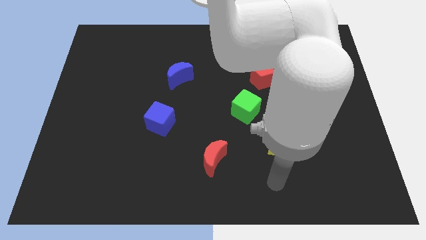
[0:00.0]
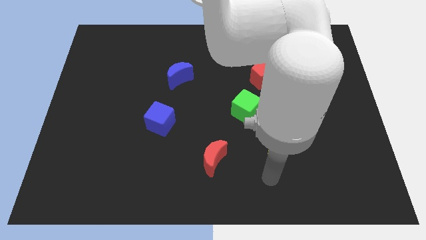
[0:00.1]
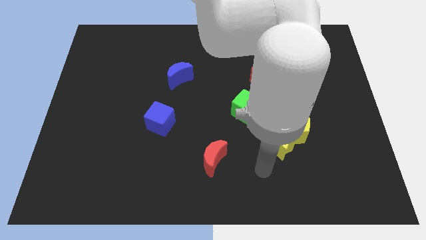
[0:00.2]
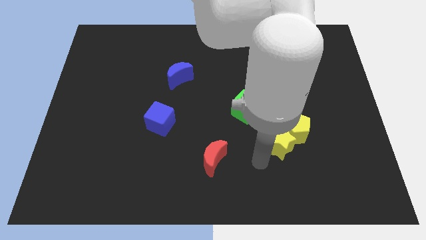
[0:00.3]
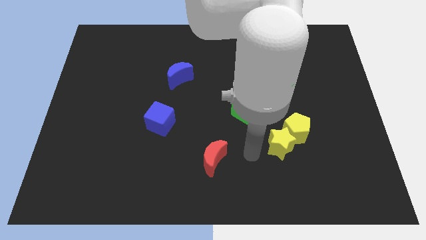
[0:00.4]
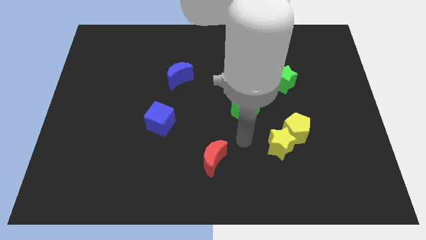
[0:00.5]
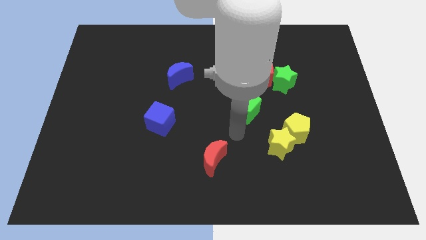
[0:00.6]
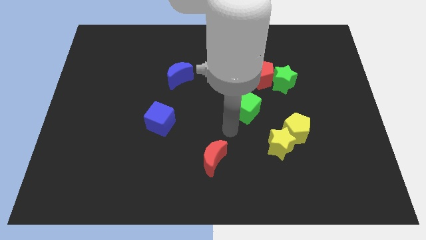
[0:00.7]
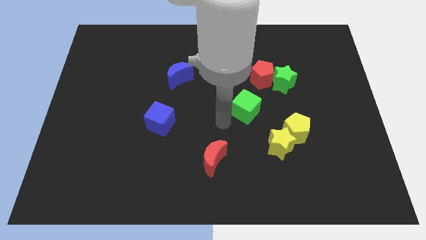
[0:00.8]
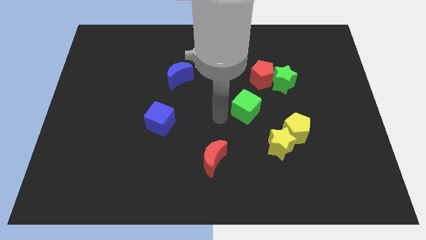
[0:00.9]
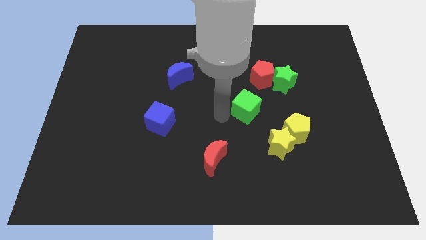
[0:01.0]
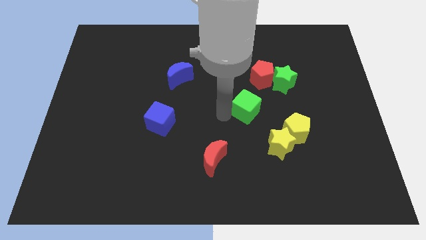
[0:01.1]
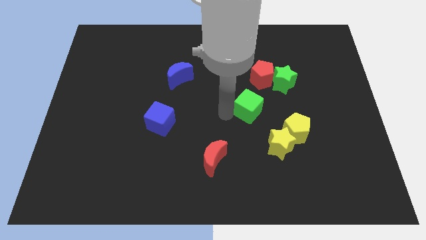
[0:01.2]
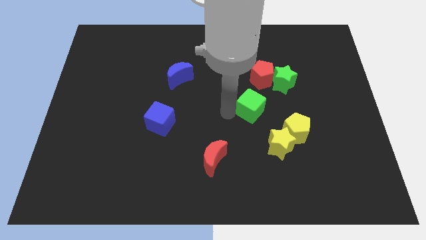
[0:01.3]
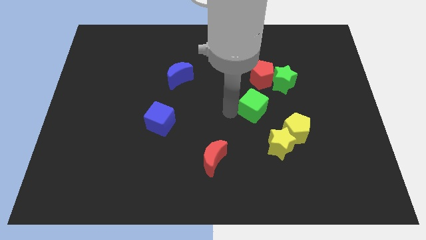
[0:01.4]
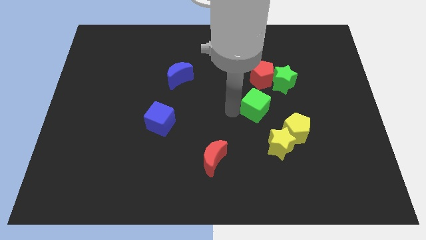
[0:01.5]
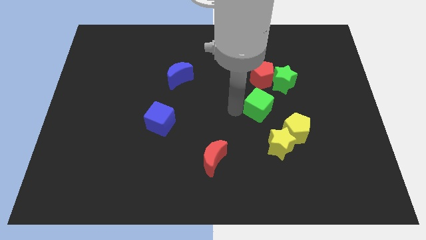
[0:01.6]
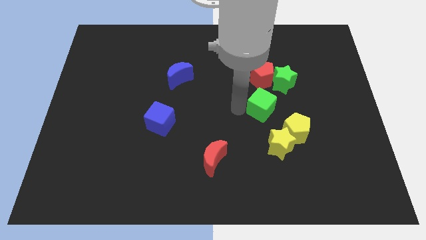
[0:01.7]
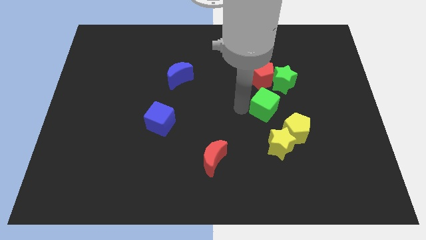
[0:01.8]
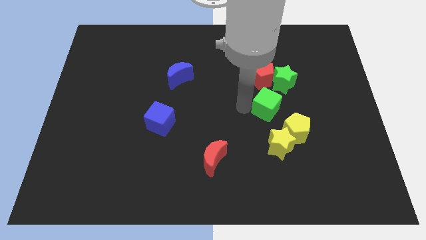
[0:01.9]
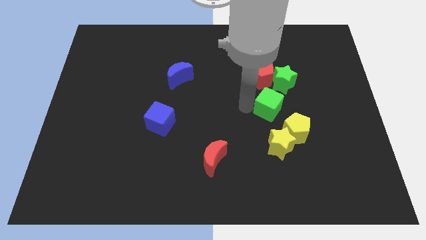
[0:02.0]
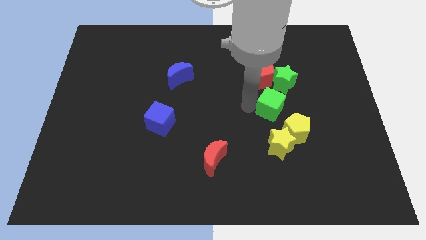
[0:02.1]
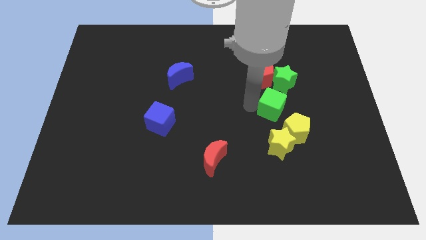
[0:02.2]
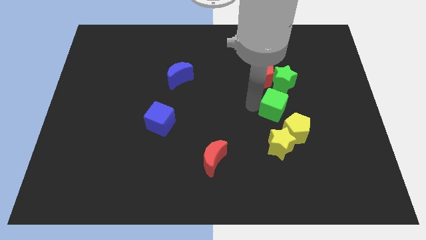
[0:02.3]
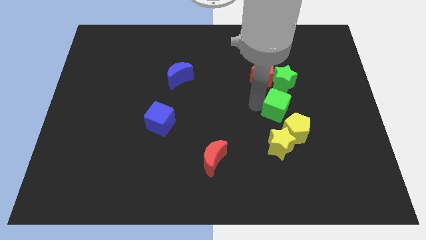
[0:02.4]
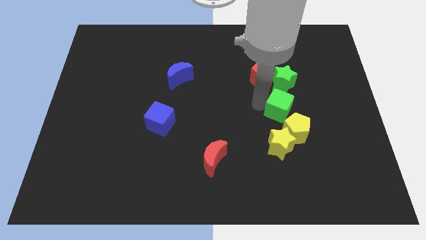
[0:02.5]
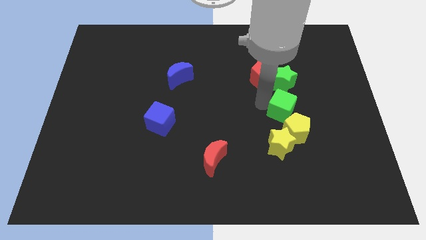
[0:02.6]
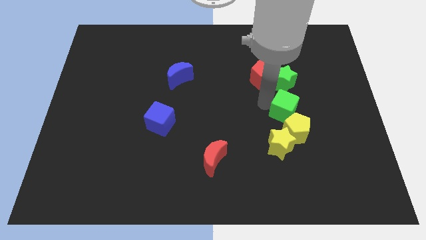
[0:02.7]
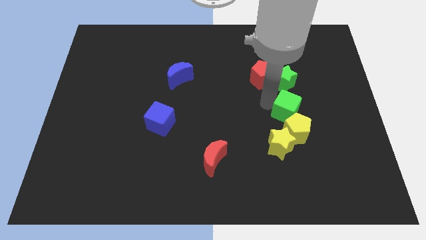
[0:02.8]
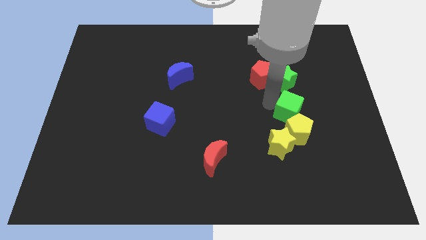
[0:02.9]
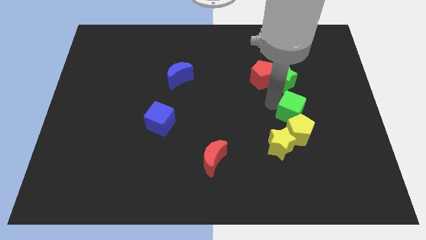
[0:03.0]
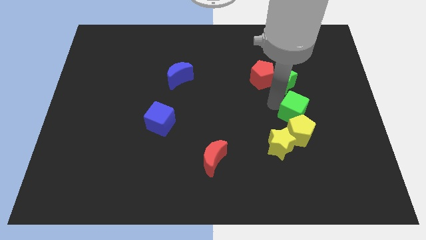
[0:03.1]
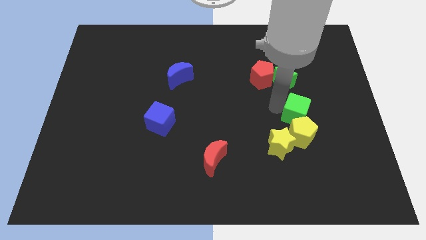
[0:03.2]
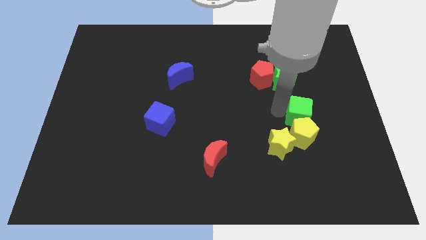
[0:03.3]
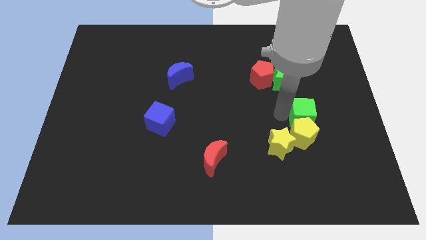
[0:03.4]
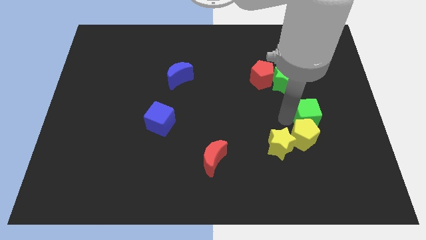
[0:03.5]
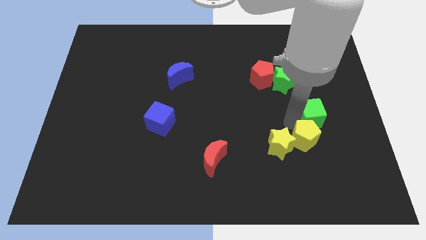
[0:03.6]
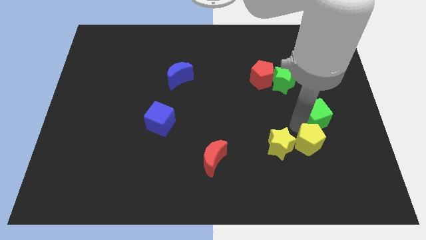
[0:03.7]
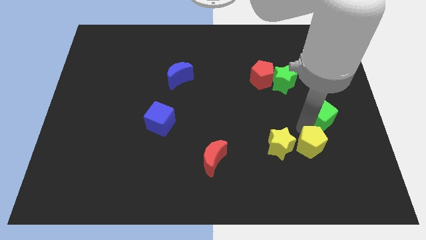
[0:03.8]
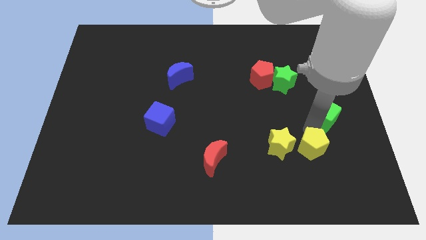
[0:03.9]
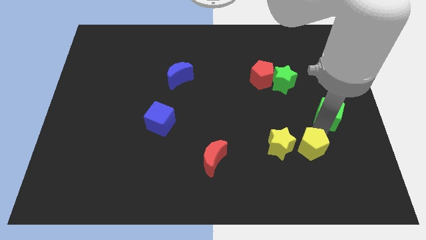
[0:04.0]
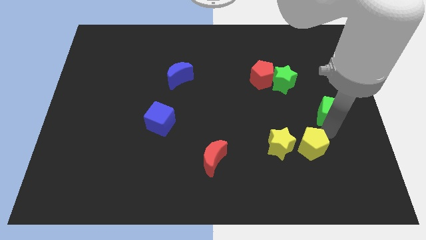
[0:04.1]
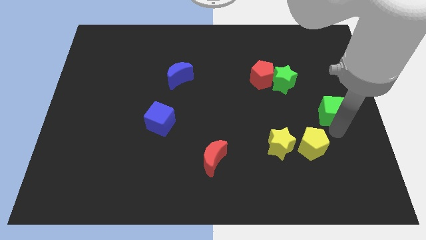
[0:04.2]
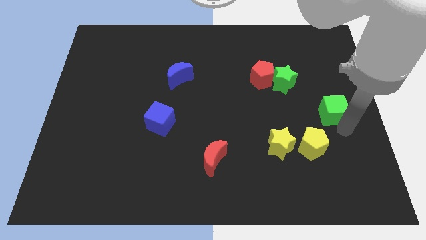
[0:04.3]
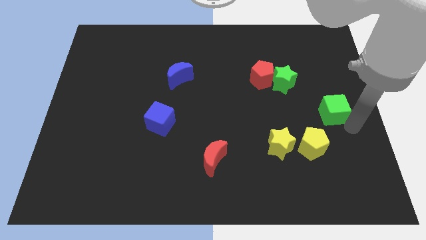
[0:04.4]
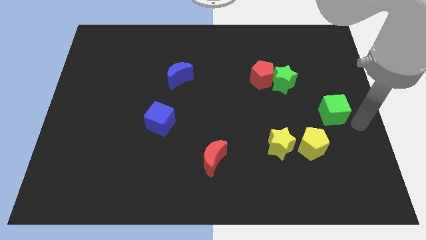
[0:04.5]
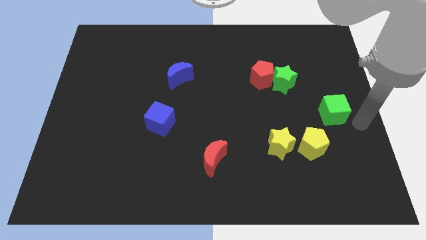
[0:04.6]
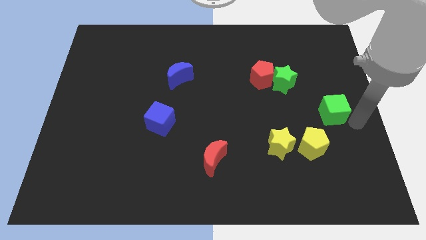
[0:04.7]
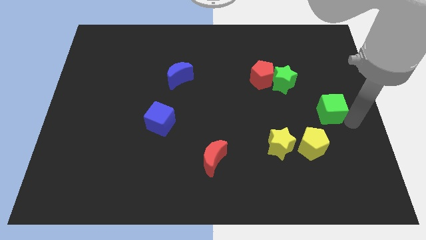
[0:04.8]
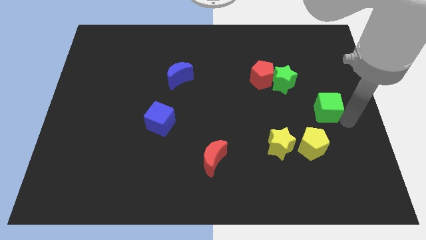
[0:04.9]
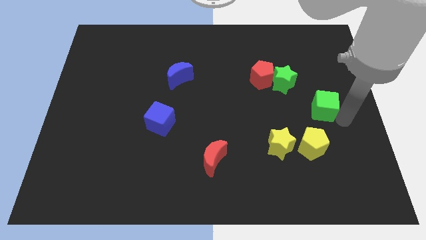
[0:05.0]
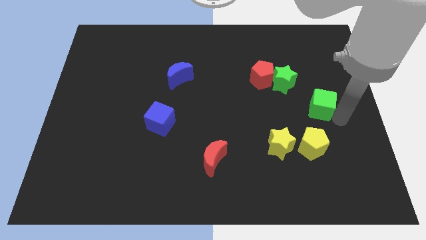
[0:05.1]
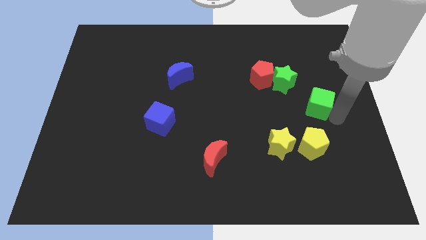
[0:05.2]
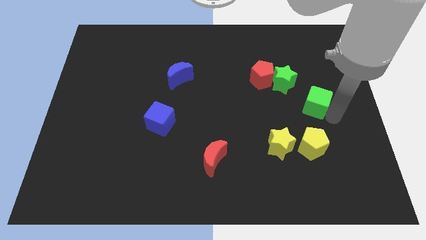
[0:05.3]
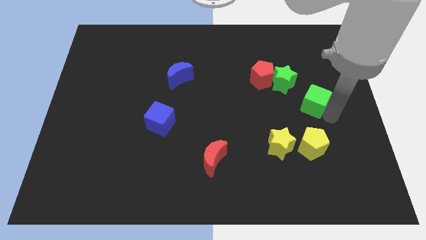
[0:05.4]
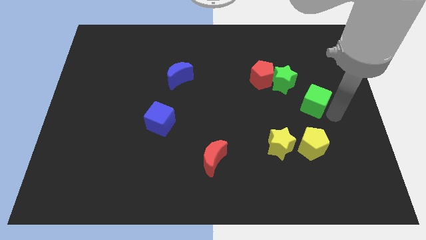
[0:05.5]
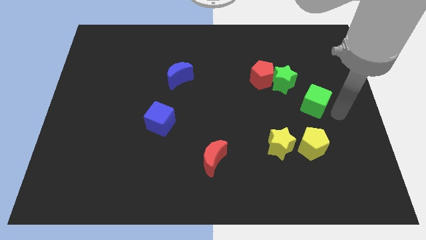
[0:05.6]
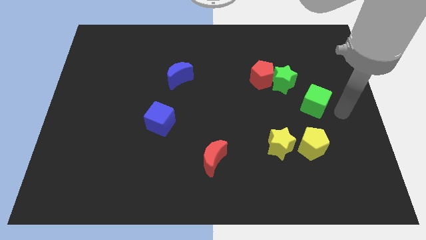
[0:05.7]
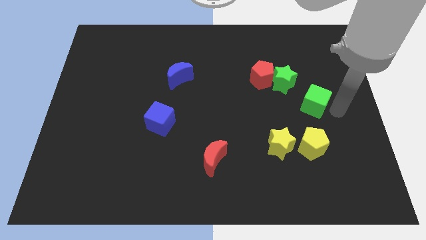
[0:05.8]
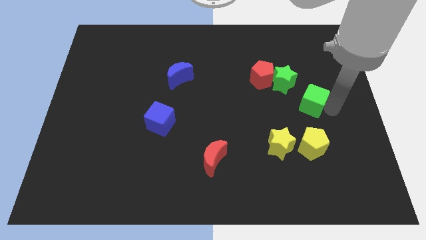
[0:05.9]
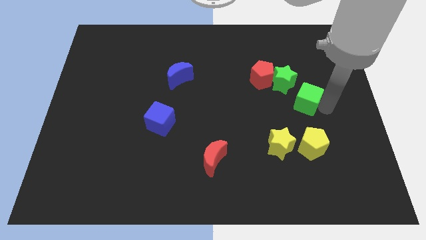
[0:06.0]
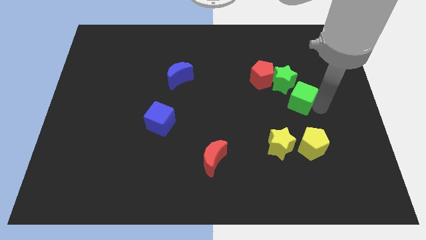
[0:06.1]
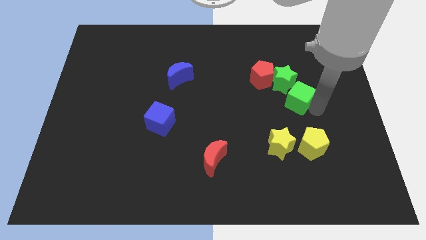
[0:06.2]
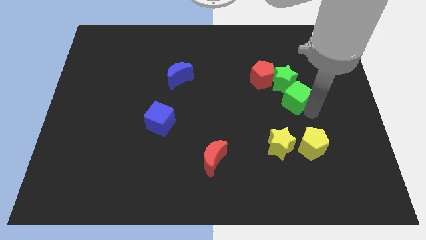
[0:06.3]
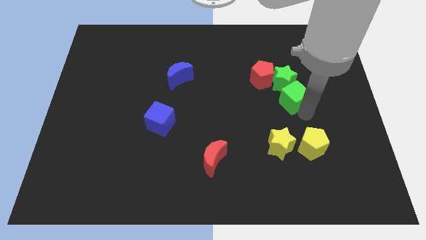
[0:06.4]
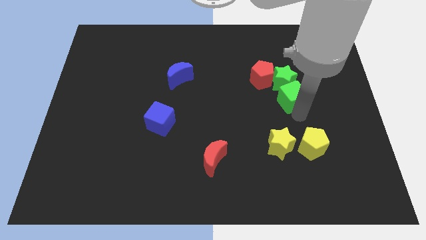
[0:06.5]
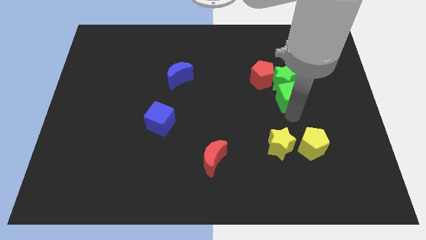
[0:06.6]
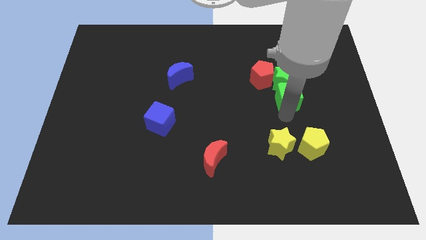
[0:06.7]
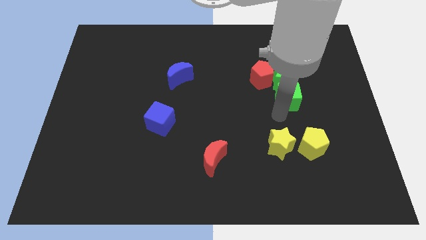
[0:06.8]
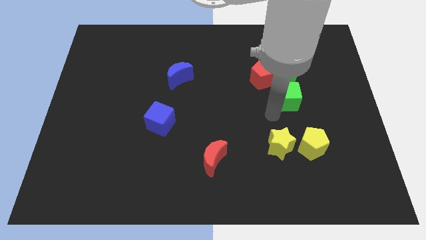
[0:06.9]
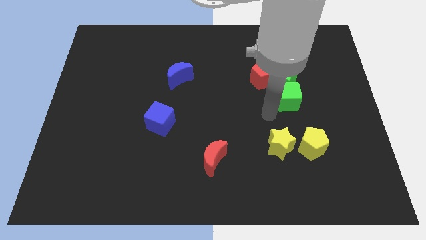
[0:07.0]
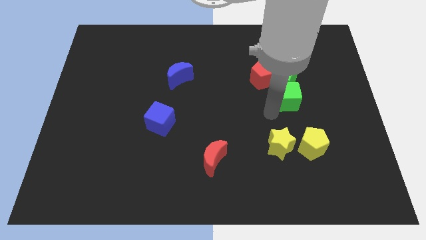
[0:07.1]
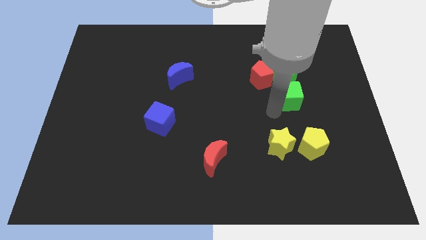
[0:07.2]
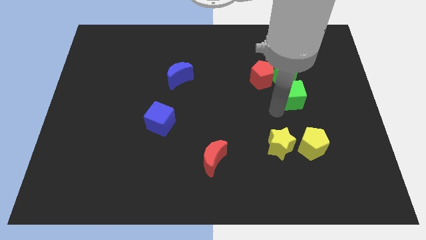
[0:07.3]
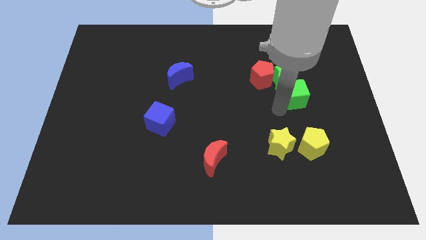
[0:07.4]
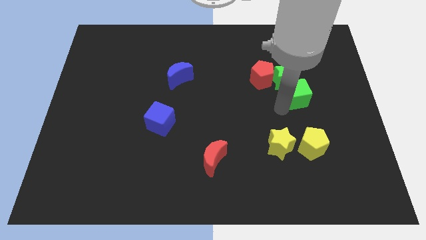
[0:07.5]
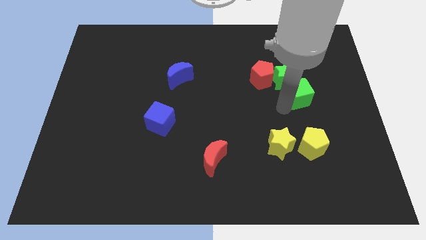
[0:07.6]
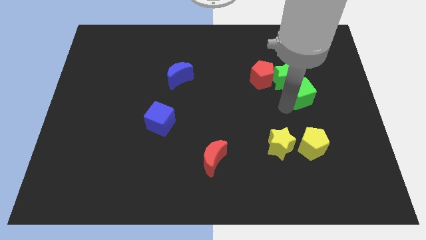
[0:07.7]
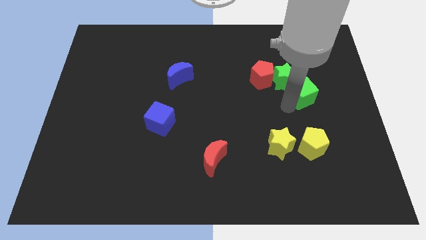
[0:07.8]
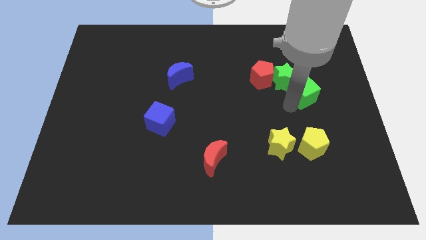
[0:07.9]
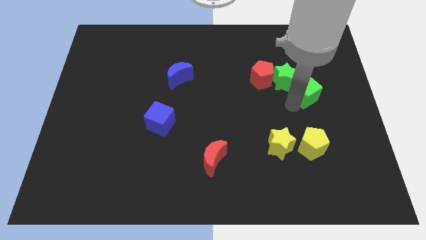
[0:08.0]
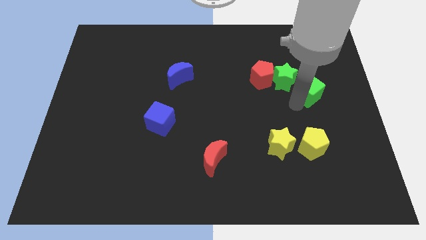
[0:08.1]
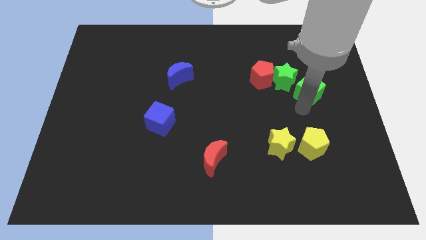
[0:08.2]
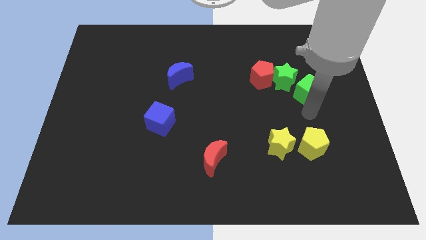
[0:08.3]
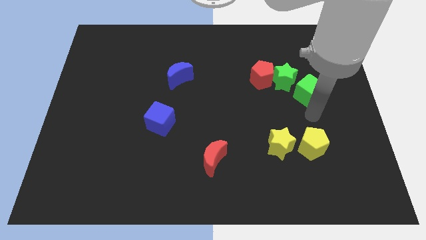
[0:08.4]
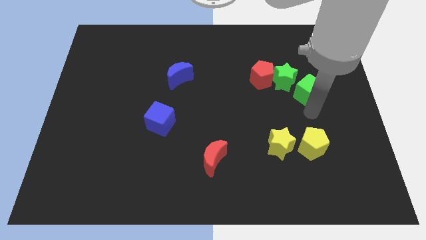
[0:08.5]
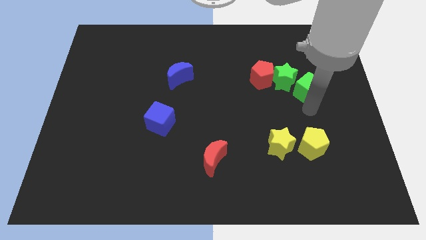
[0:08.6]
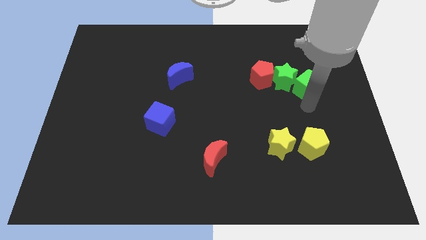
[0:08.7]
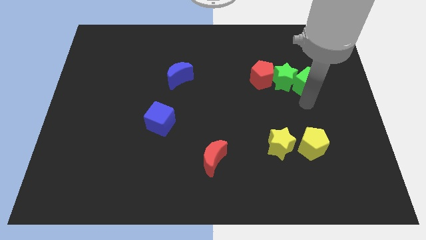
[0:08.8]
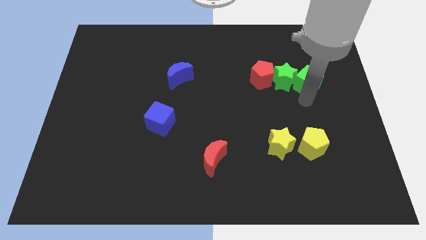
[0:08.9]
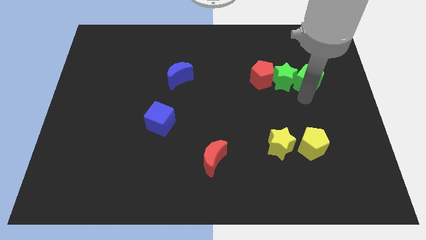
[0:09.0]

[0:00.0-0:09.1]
push the green cube diagonally up and to the right of the green star
